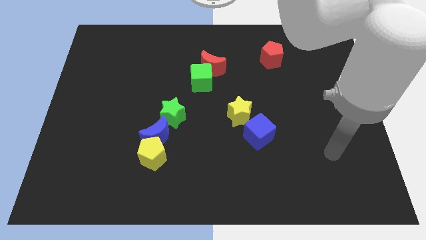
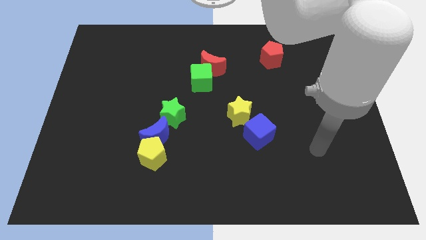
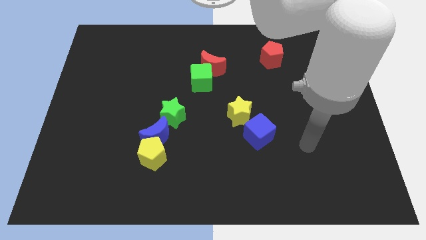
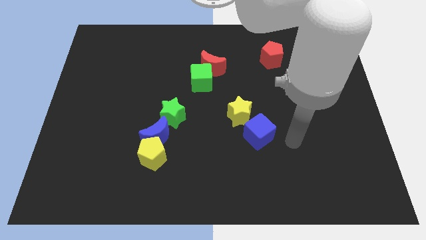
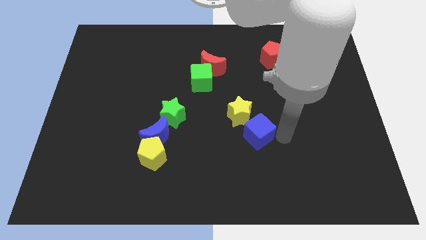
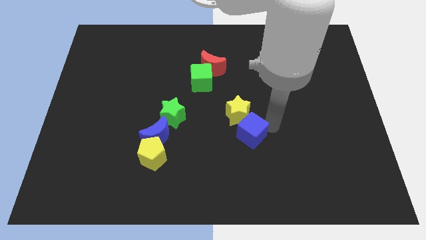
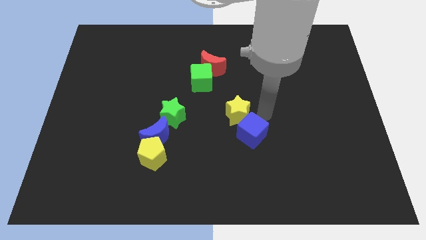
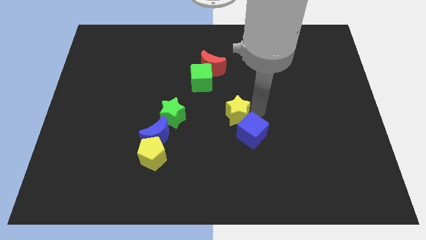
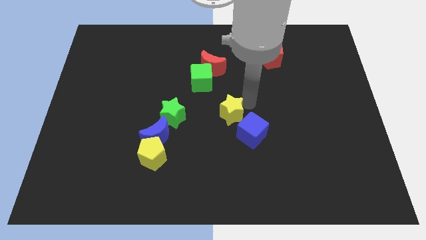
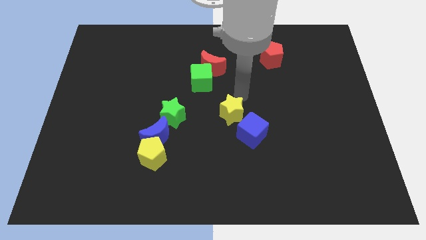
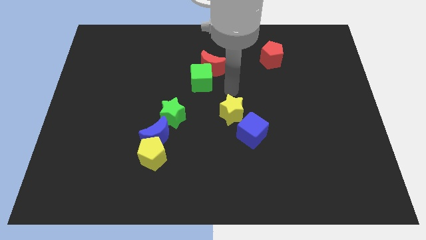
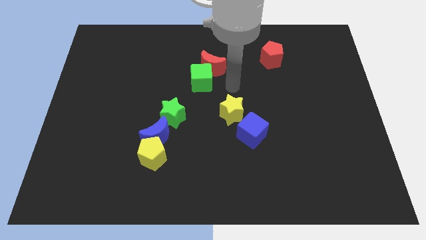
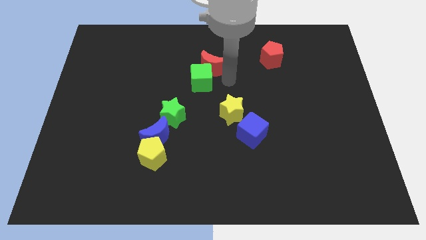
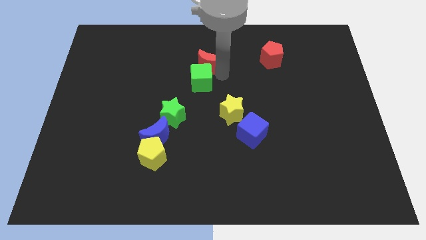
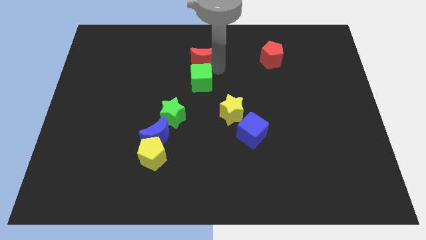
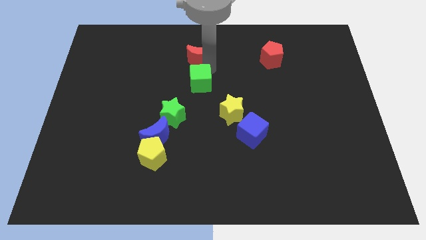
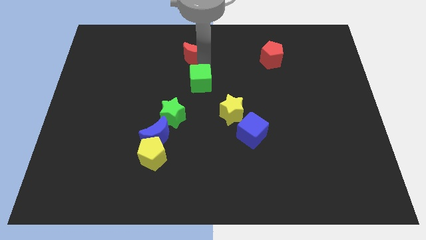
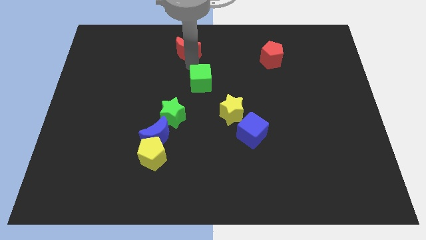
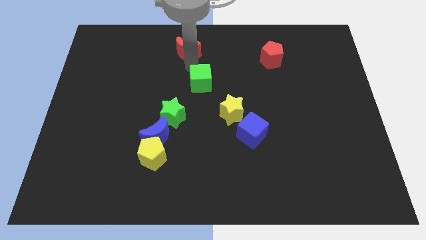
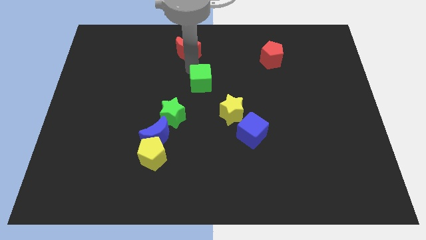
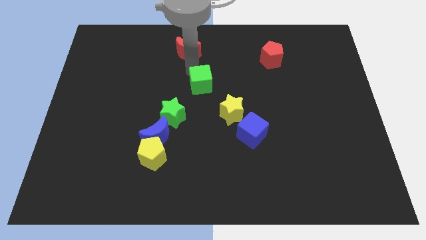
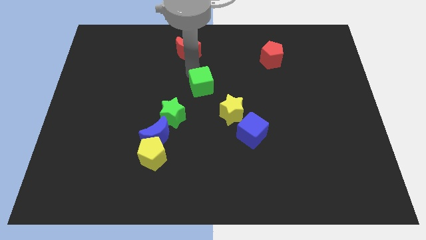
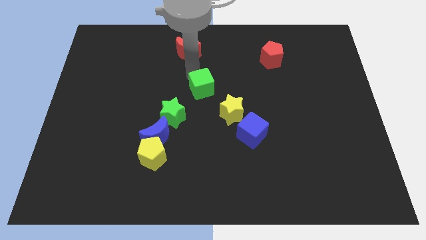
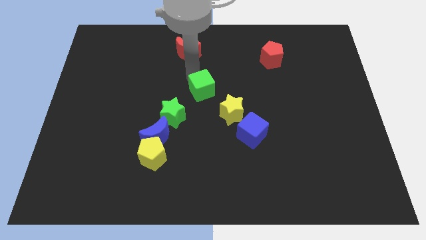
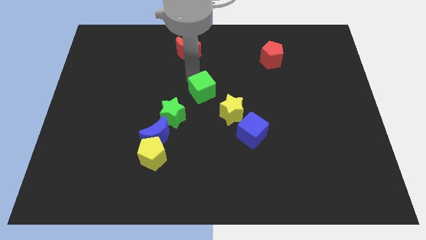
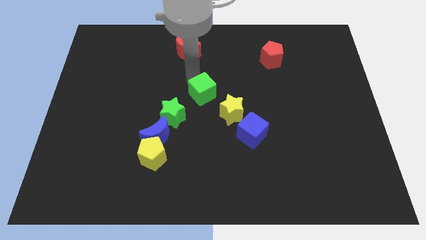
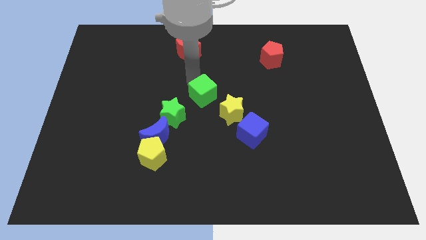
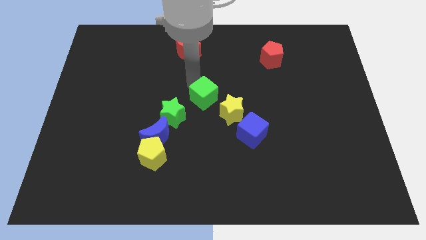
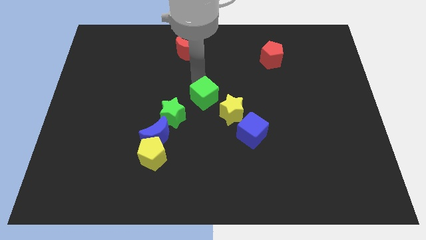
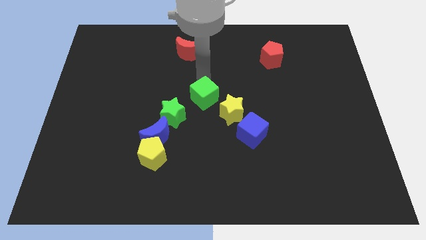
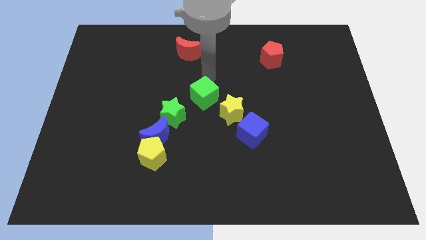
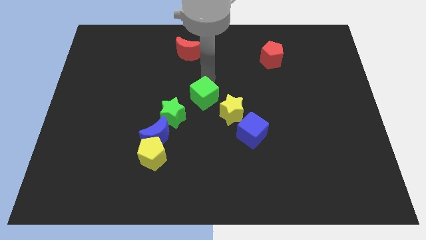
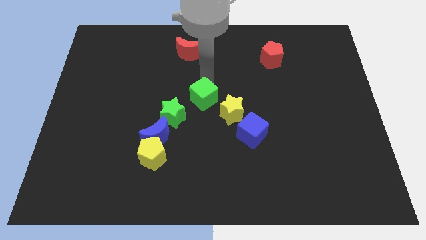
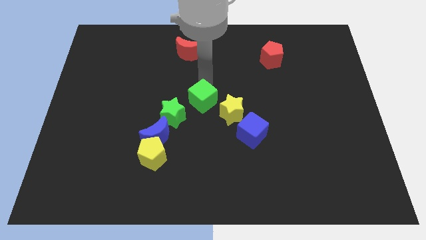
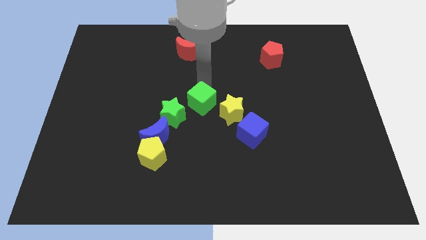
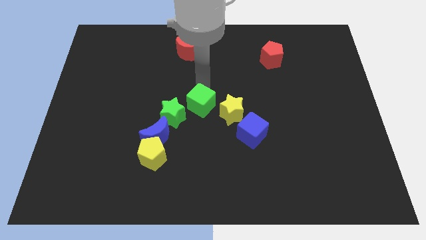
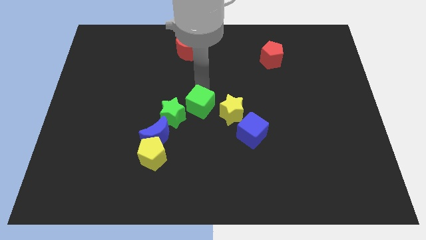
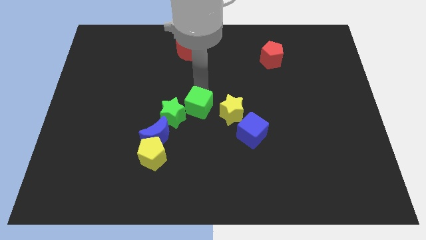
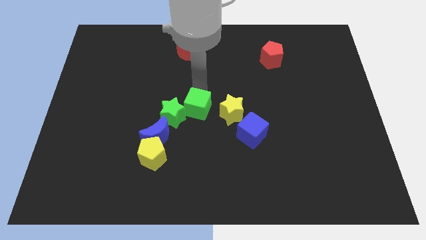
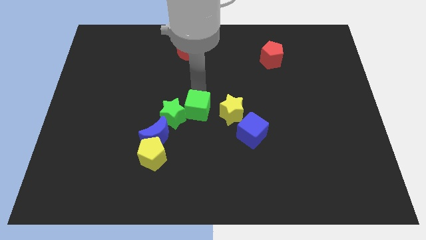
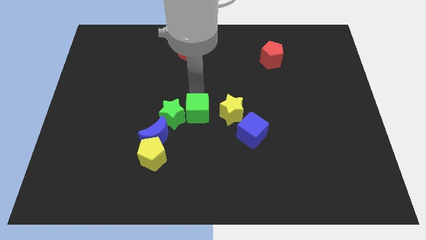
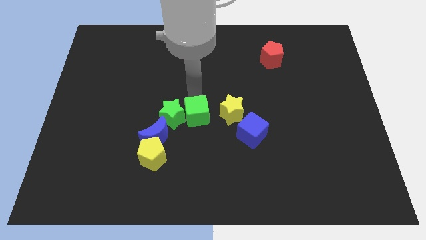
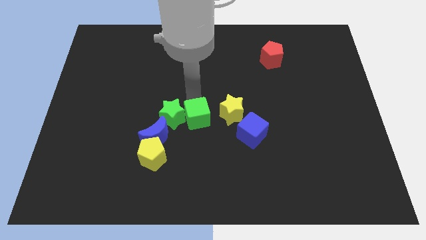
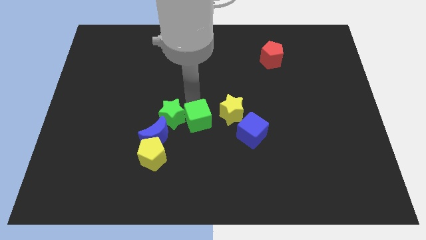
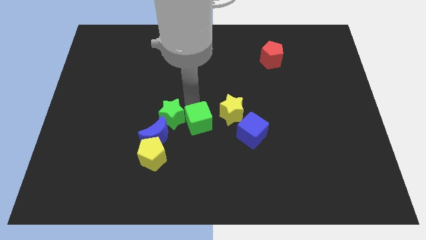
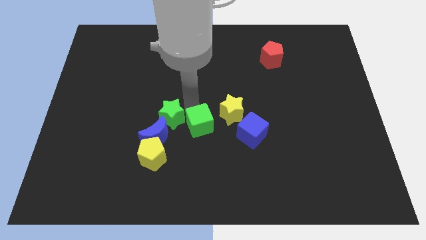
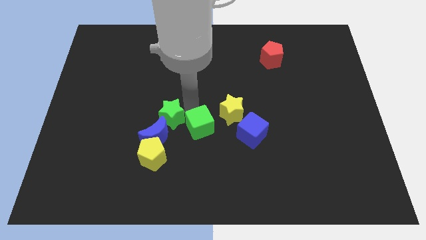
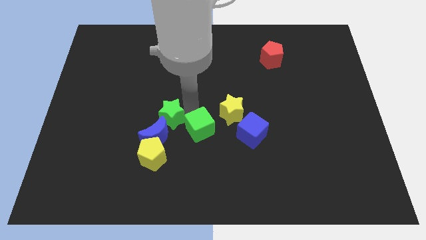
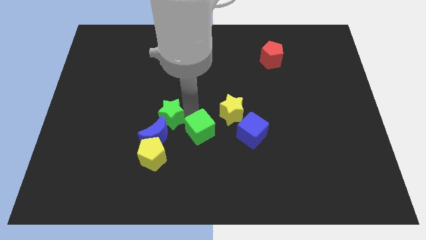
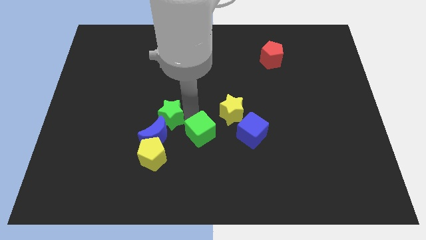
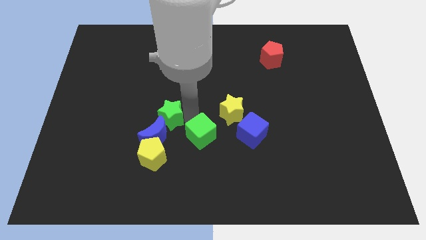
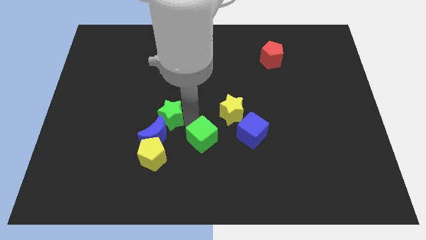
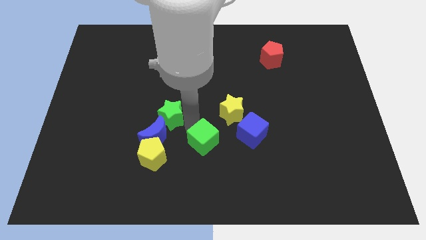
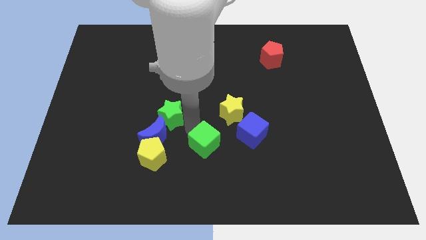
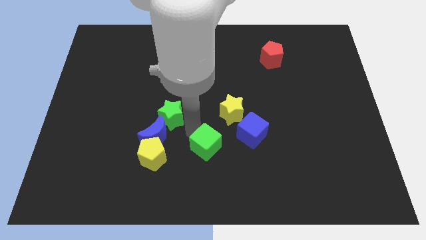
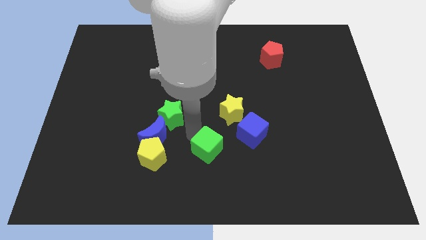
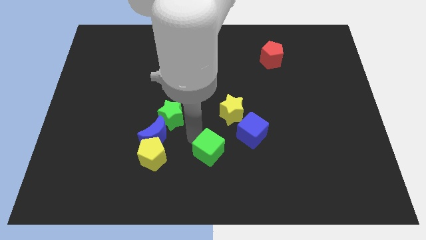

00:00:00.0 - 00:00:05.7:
move the green cube to the bottom of the yellow star

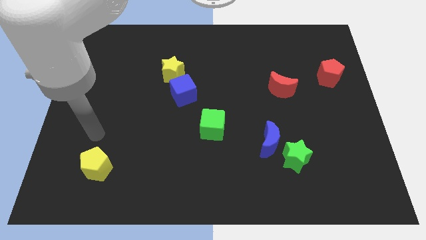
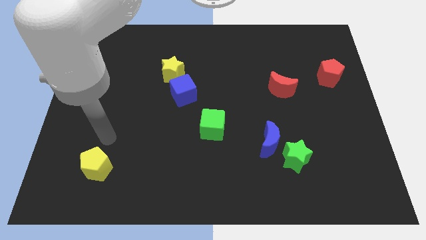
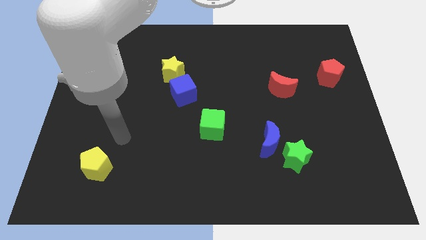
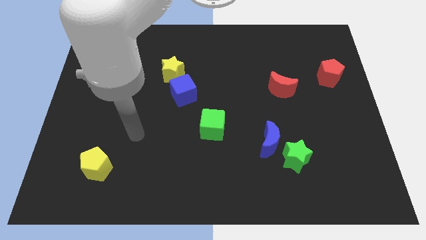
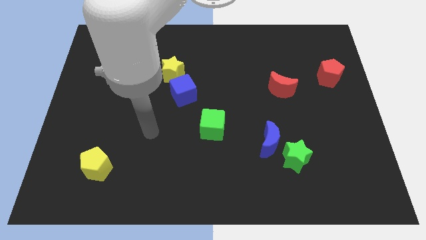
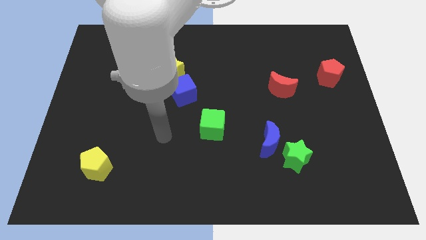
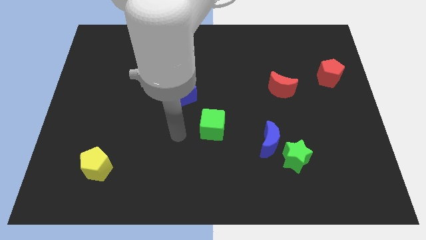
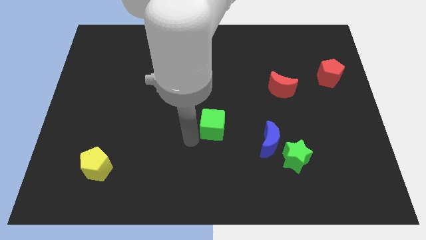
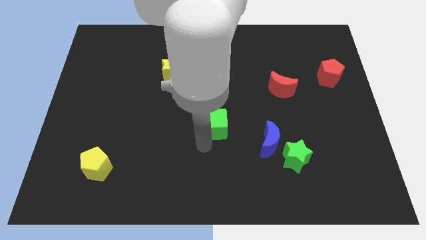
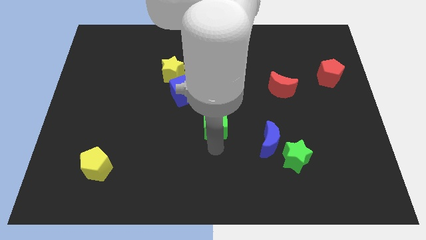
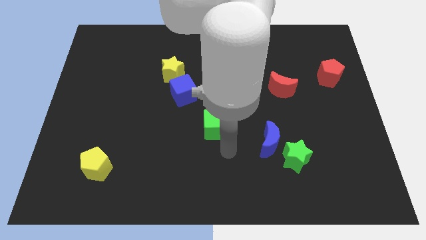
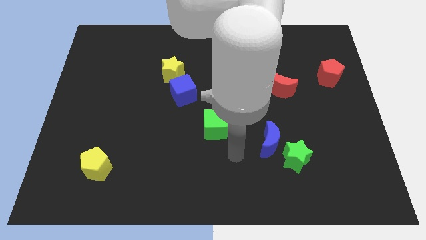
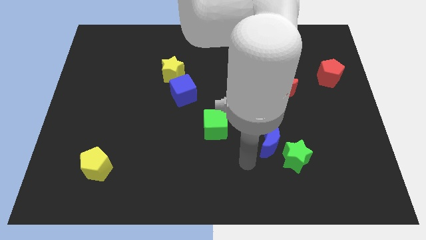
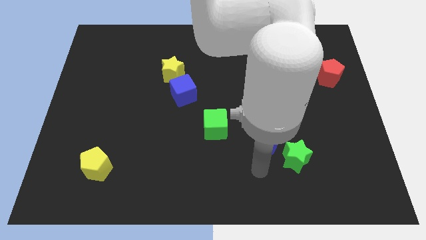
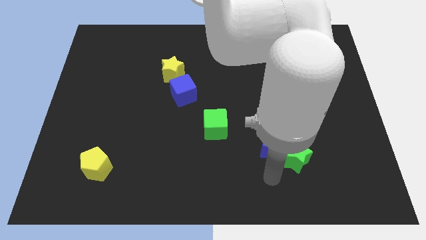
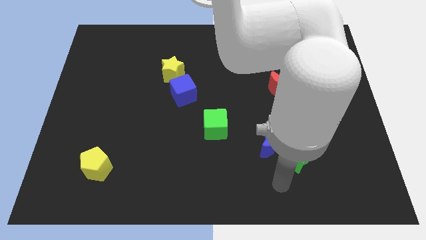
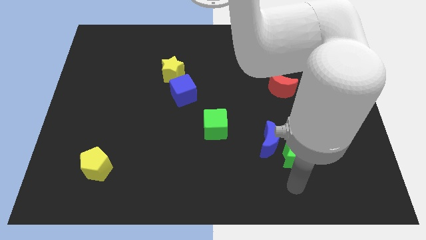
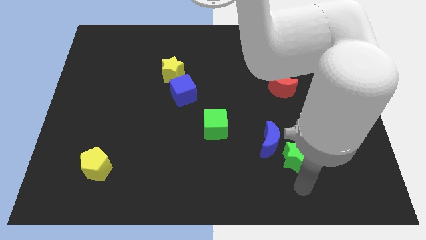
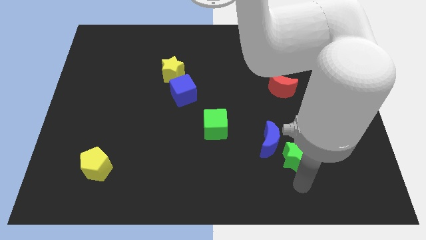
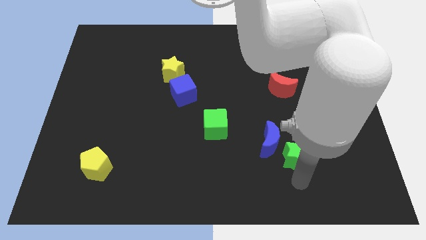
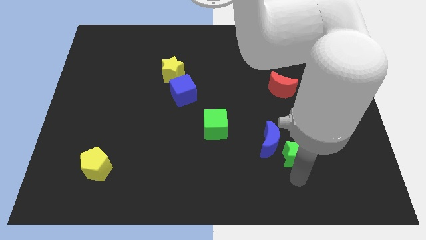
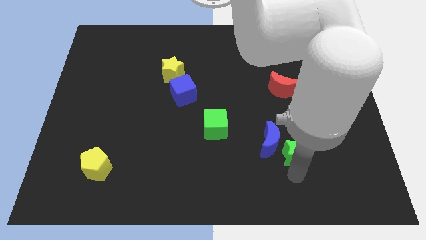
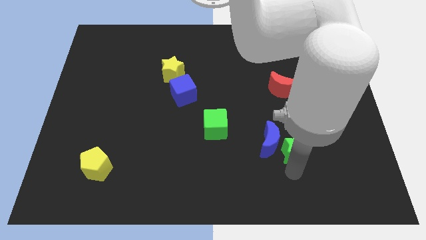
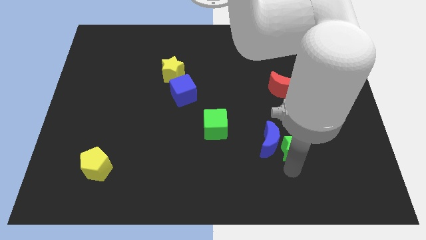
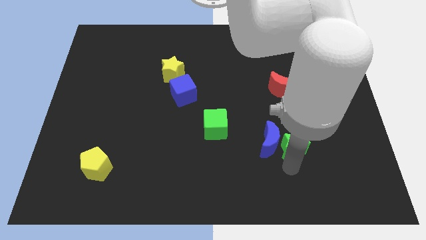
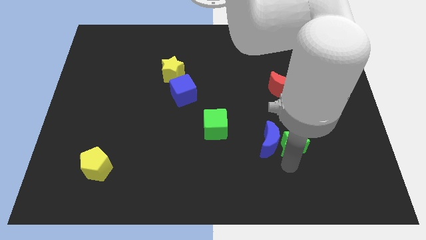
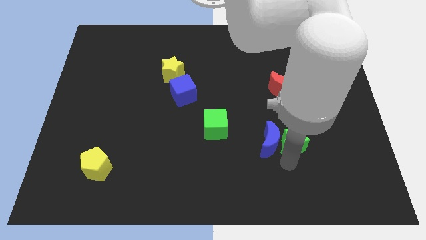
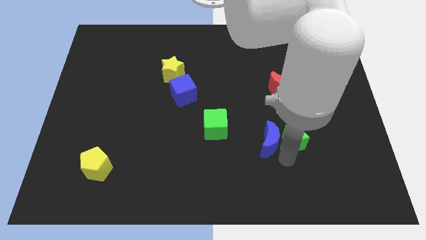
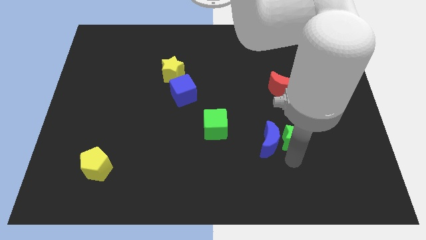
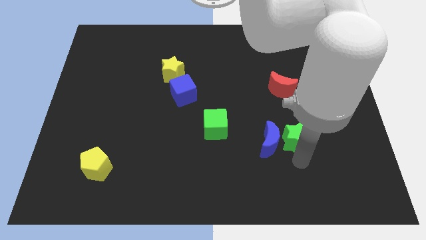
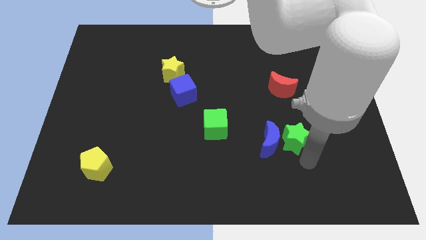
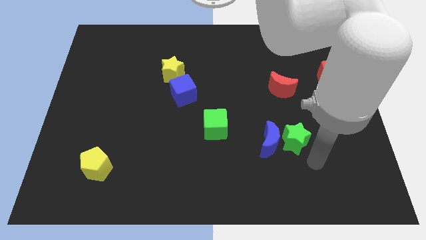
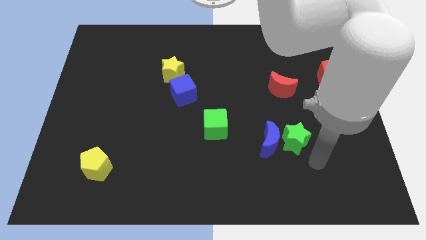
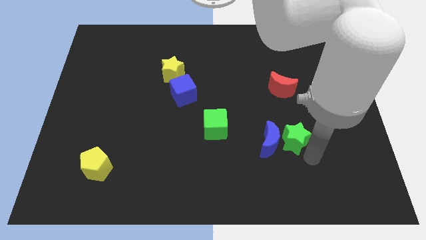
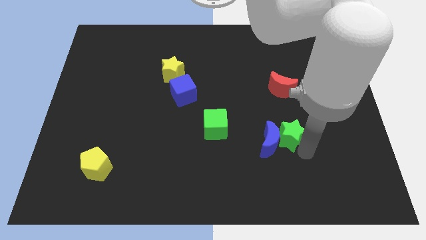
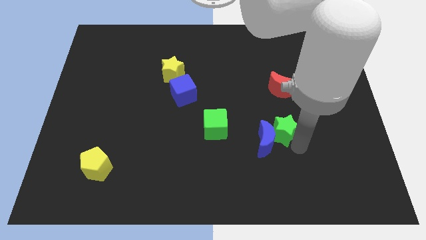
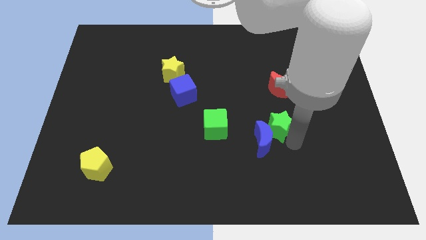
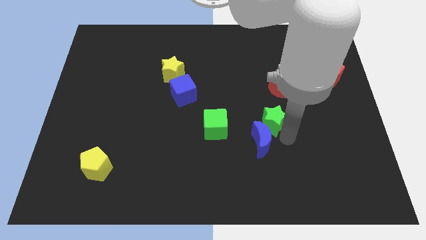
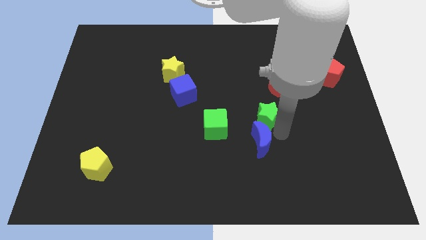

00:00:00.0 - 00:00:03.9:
move the green star to the bottom left side of the red moon
